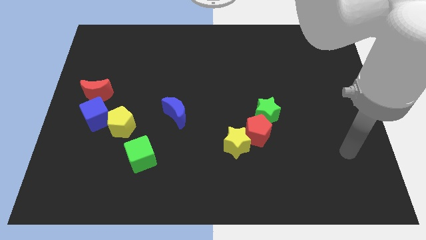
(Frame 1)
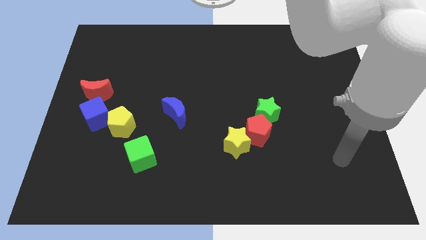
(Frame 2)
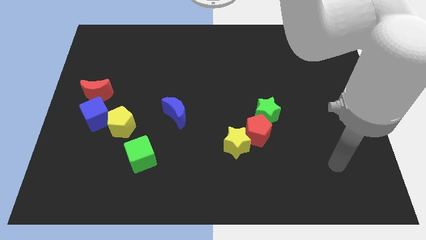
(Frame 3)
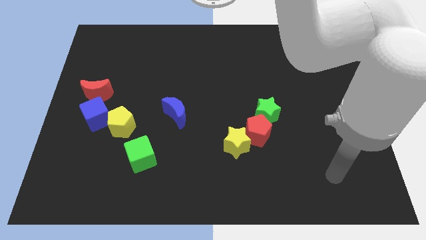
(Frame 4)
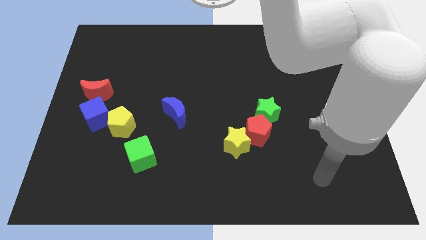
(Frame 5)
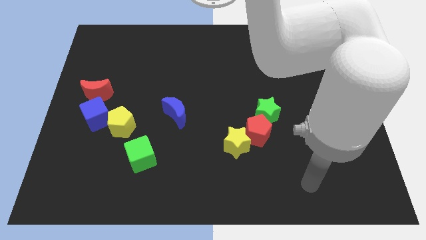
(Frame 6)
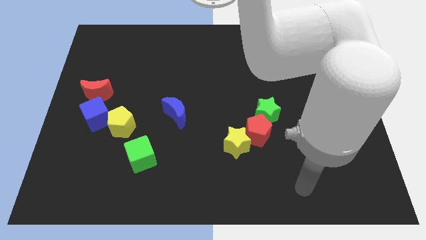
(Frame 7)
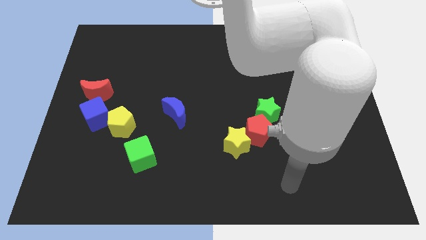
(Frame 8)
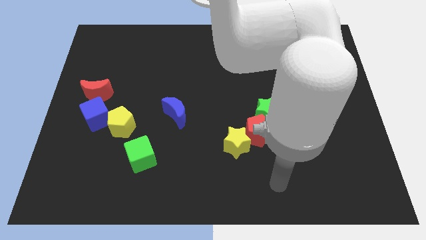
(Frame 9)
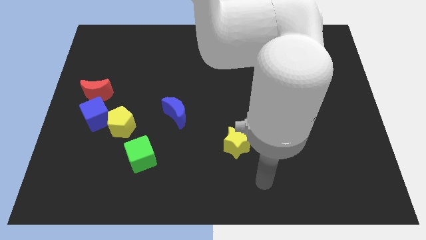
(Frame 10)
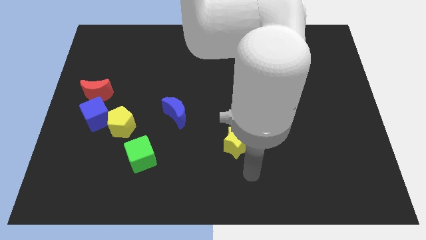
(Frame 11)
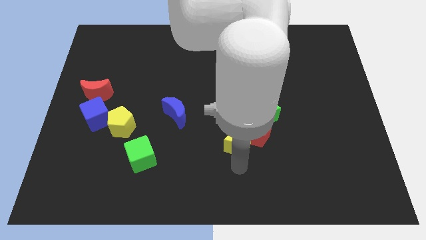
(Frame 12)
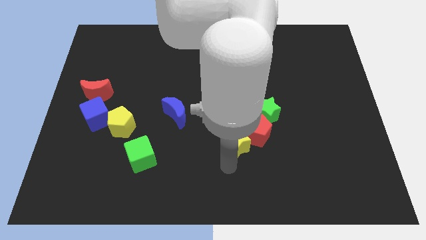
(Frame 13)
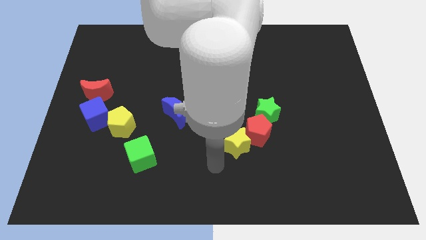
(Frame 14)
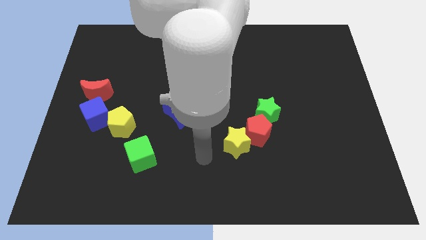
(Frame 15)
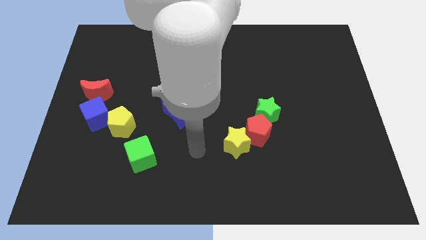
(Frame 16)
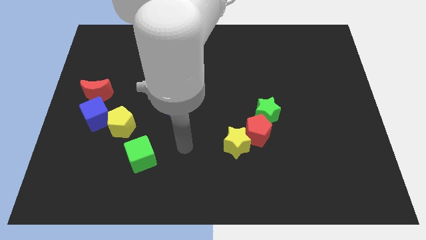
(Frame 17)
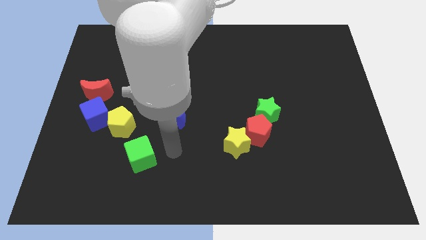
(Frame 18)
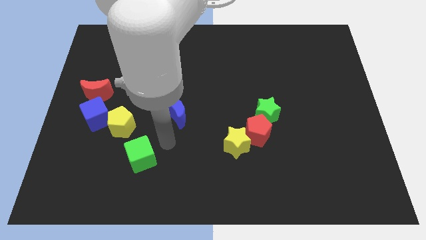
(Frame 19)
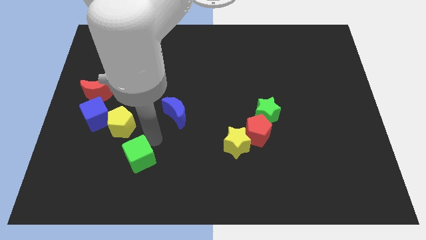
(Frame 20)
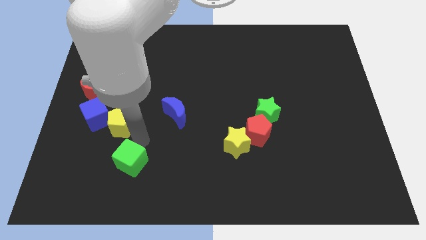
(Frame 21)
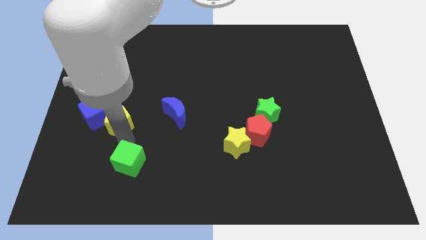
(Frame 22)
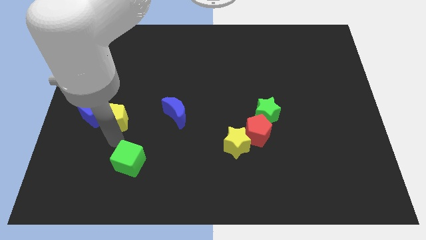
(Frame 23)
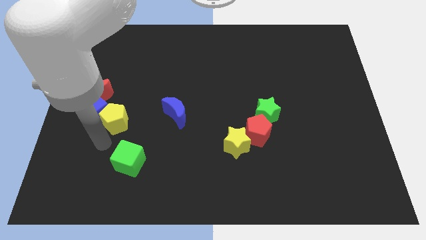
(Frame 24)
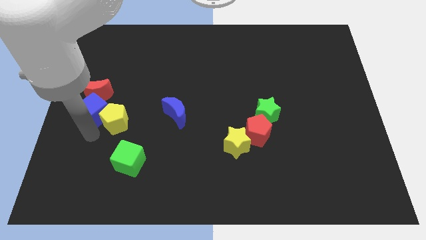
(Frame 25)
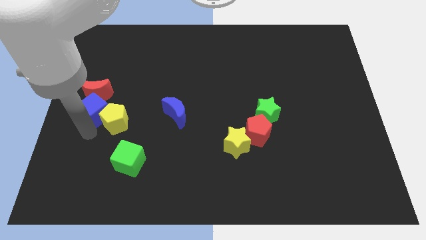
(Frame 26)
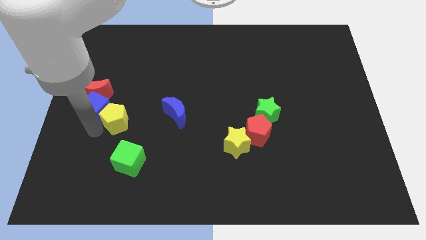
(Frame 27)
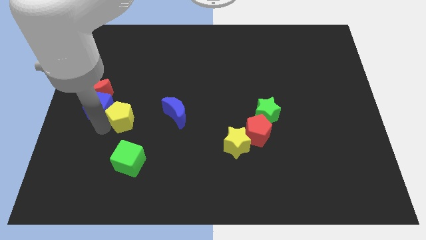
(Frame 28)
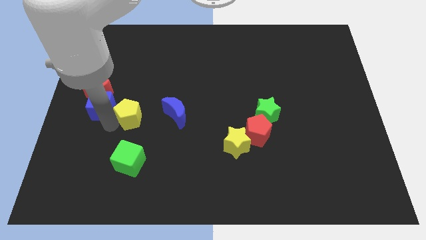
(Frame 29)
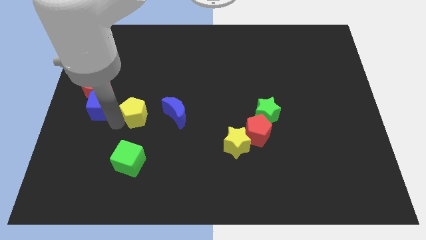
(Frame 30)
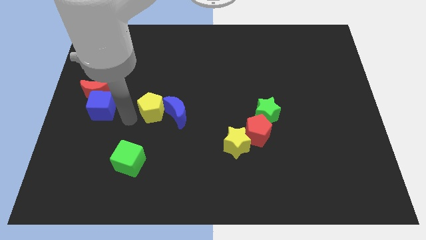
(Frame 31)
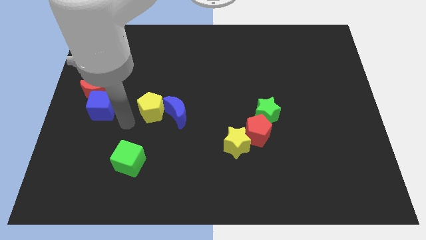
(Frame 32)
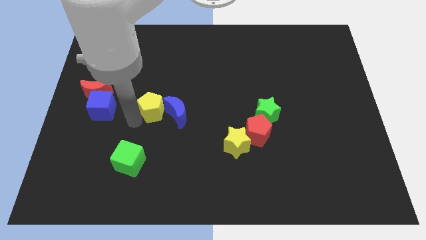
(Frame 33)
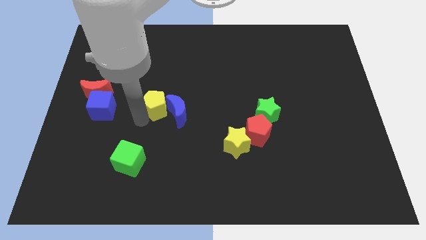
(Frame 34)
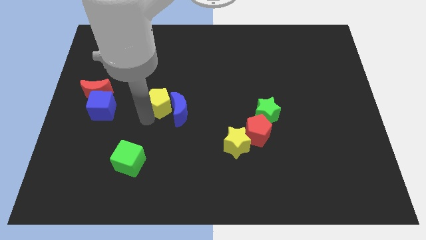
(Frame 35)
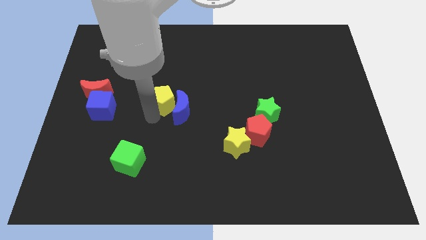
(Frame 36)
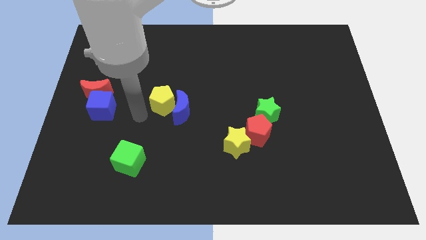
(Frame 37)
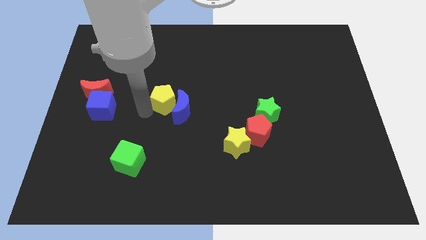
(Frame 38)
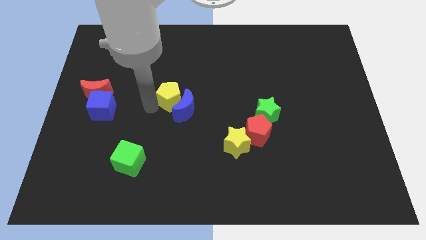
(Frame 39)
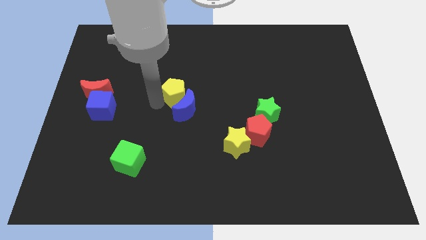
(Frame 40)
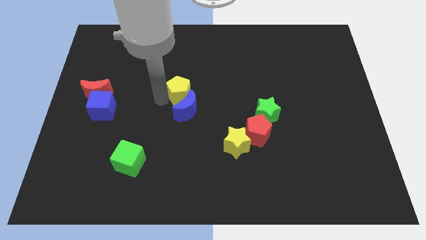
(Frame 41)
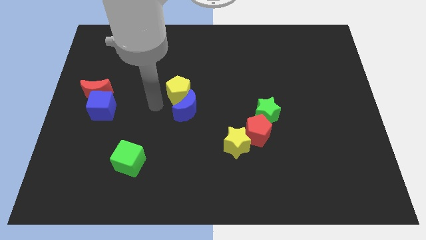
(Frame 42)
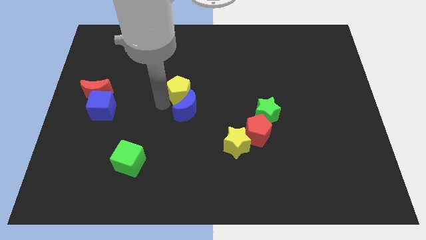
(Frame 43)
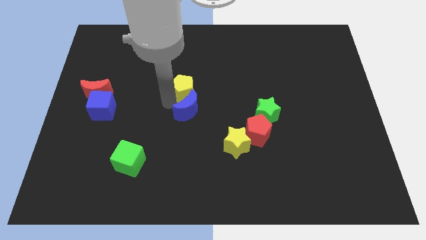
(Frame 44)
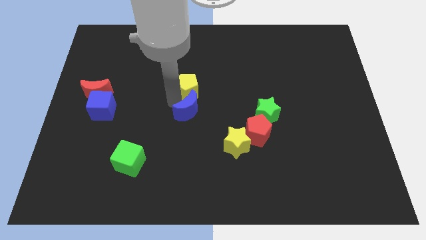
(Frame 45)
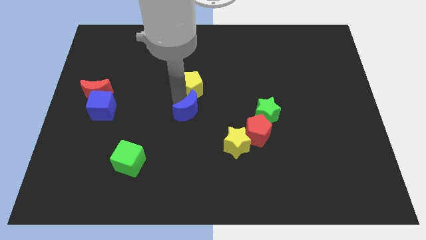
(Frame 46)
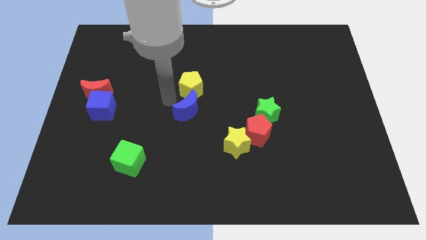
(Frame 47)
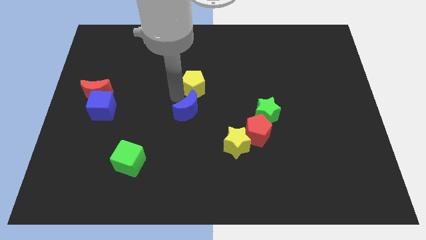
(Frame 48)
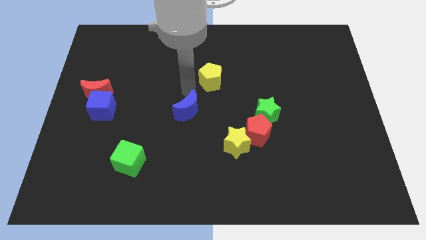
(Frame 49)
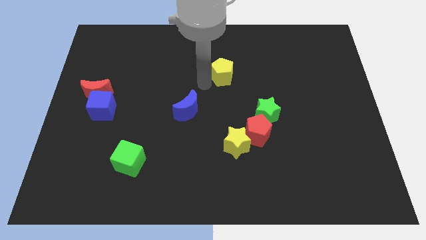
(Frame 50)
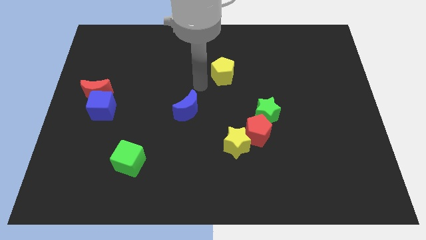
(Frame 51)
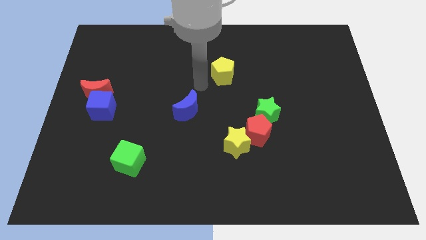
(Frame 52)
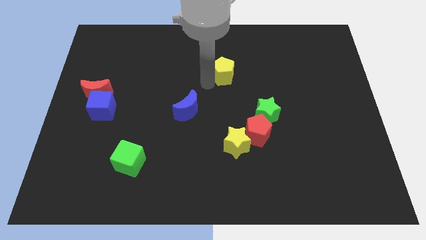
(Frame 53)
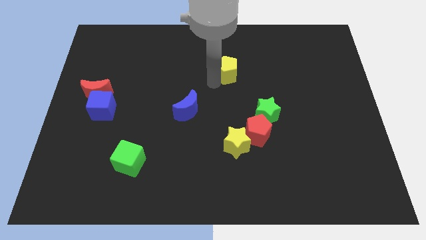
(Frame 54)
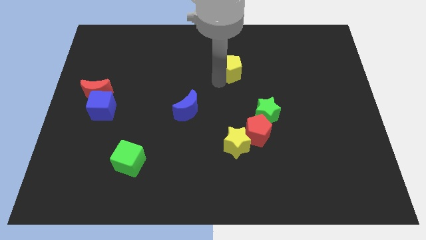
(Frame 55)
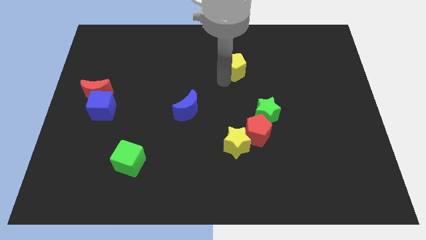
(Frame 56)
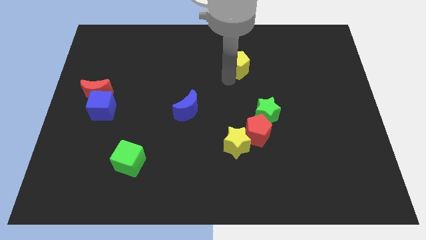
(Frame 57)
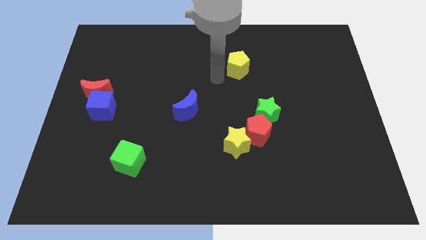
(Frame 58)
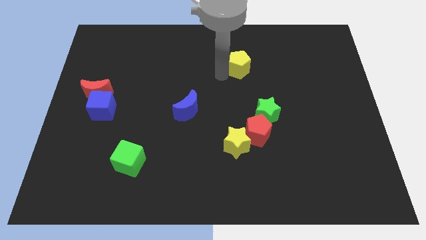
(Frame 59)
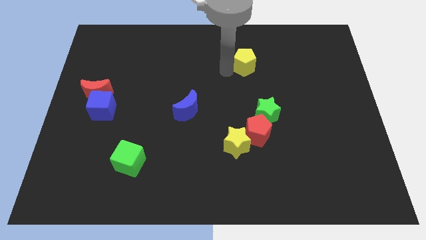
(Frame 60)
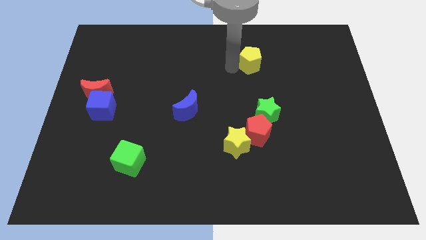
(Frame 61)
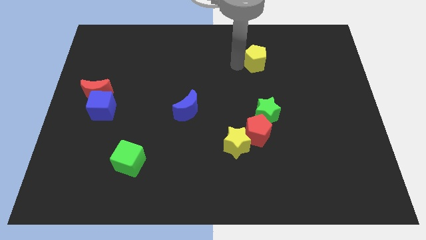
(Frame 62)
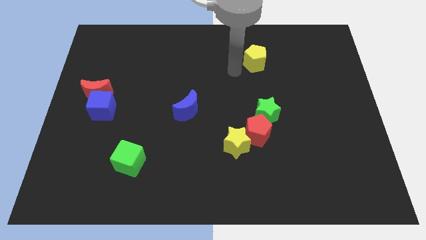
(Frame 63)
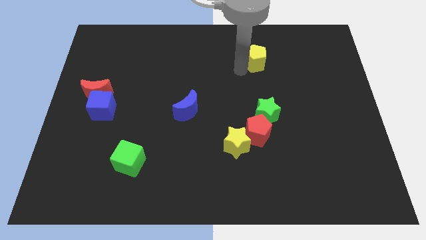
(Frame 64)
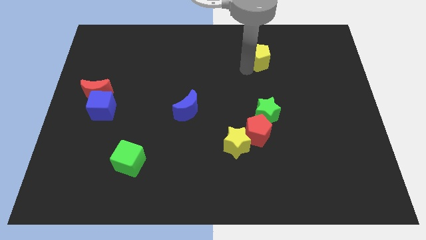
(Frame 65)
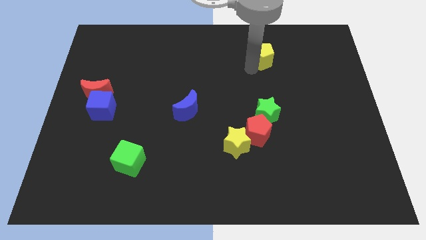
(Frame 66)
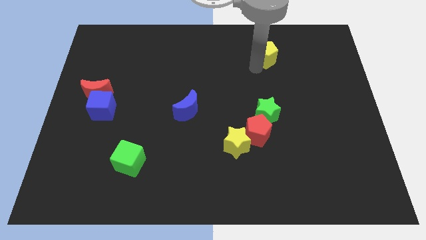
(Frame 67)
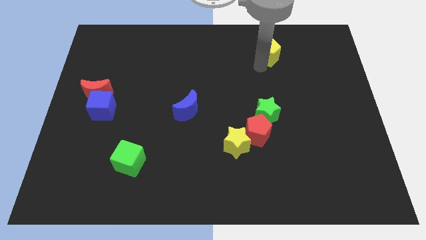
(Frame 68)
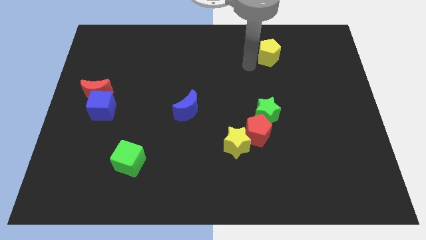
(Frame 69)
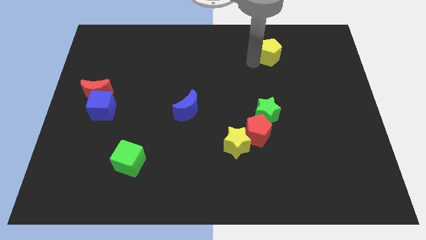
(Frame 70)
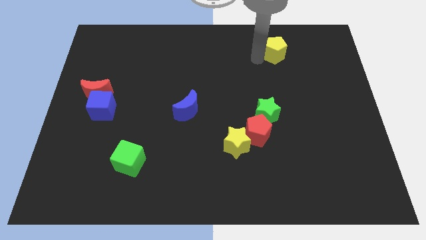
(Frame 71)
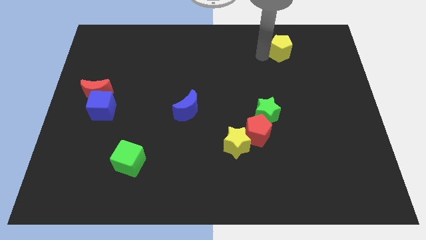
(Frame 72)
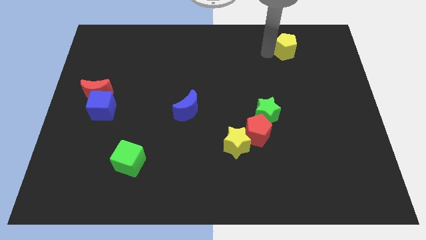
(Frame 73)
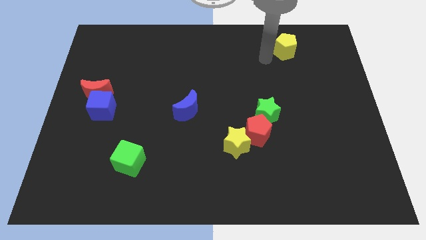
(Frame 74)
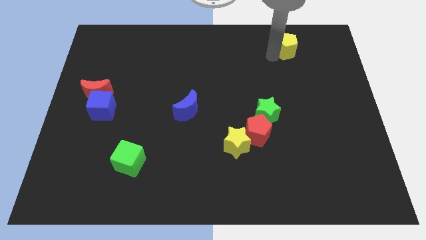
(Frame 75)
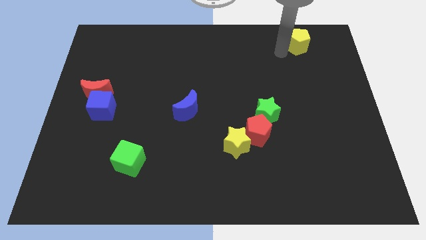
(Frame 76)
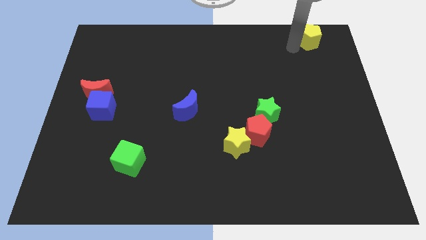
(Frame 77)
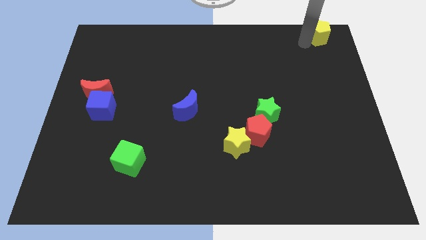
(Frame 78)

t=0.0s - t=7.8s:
slide the yellow pentagon to the top right
